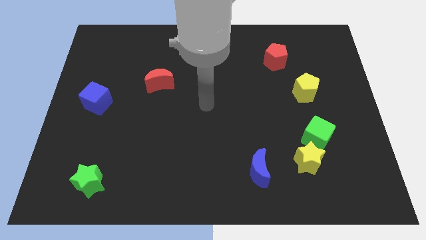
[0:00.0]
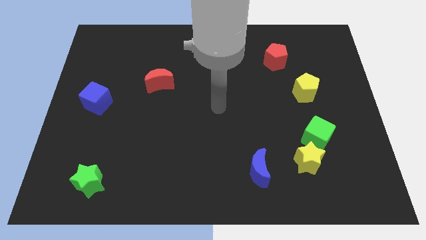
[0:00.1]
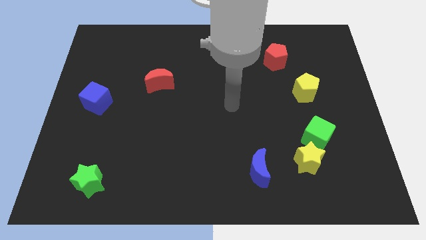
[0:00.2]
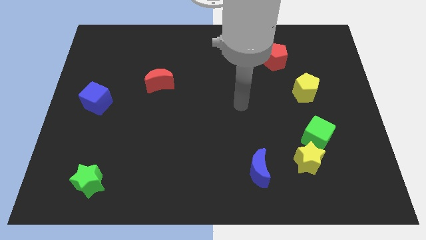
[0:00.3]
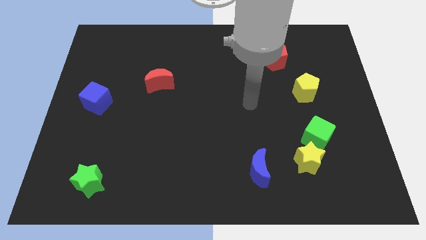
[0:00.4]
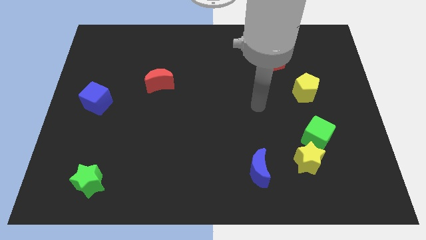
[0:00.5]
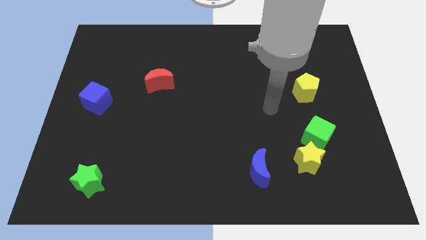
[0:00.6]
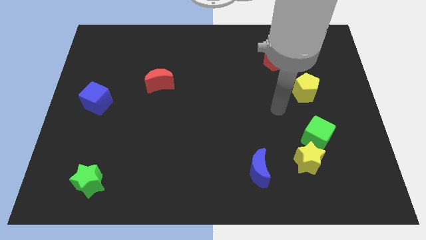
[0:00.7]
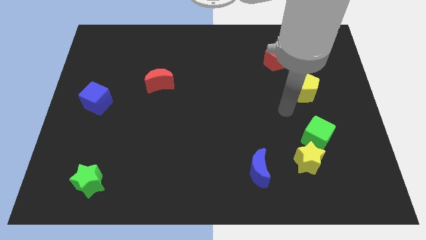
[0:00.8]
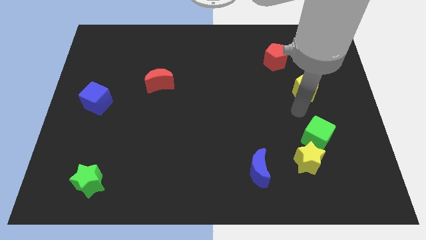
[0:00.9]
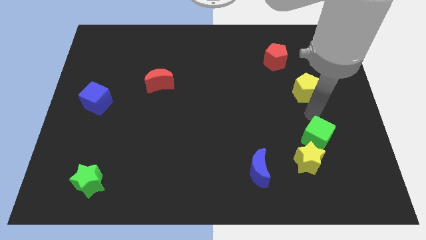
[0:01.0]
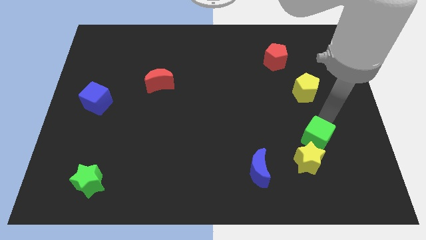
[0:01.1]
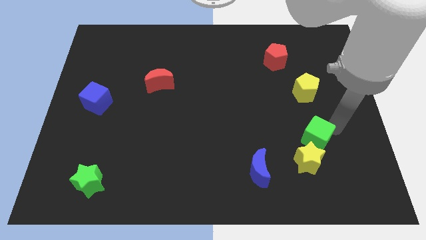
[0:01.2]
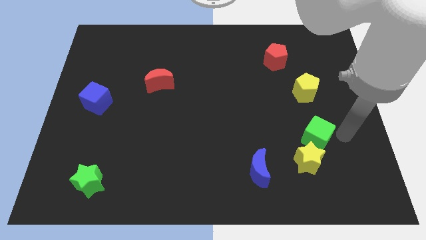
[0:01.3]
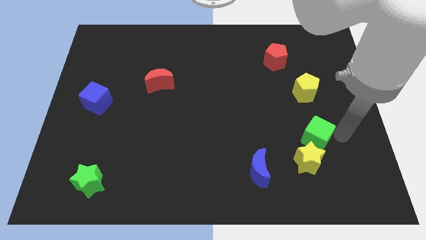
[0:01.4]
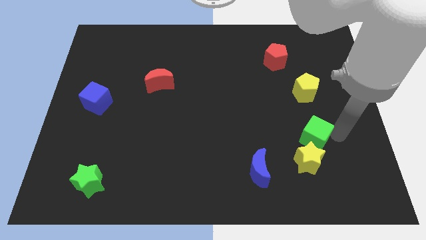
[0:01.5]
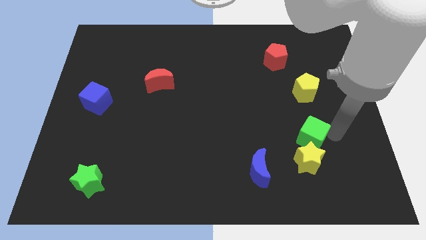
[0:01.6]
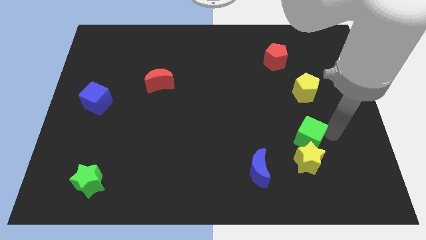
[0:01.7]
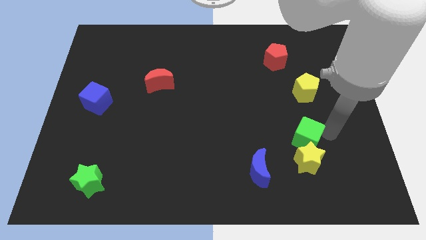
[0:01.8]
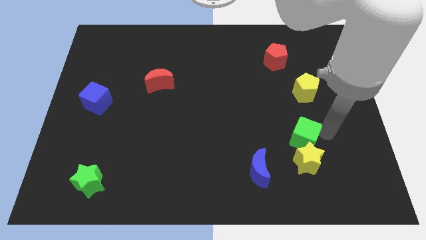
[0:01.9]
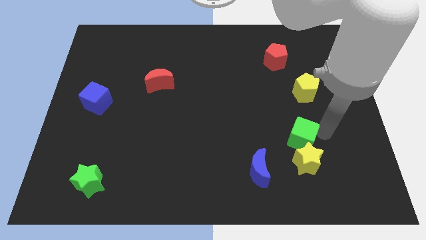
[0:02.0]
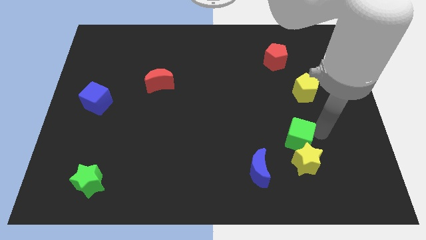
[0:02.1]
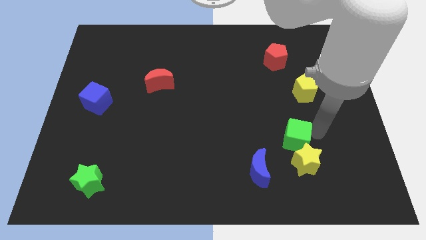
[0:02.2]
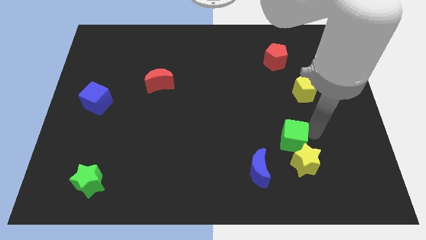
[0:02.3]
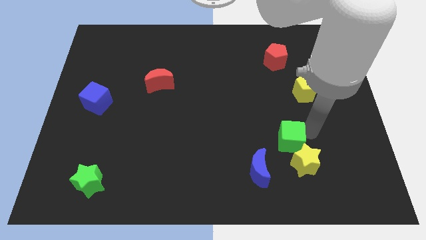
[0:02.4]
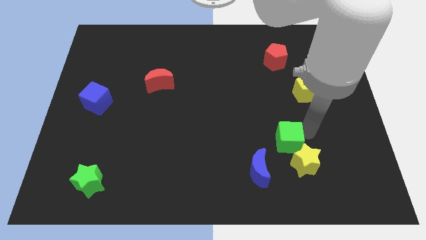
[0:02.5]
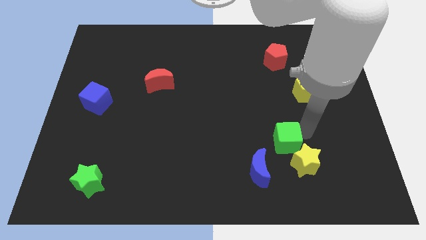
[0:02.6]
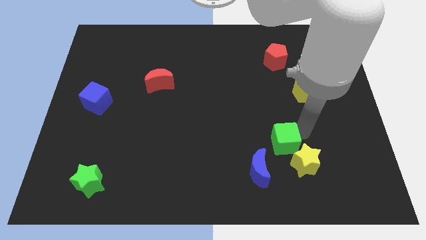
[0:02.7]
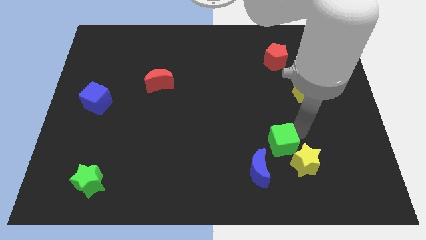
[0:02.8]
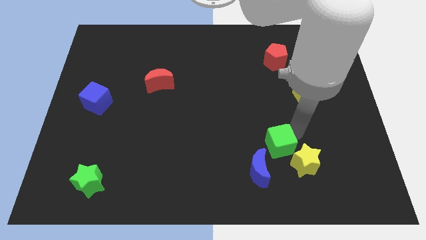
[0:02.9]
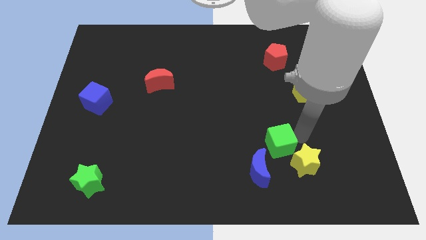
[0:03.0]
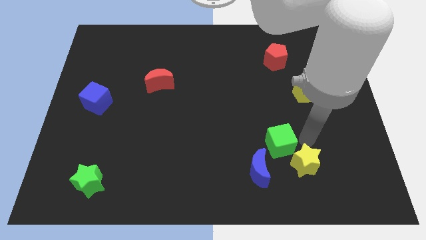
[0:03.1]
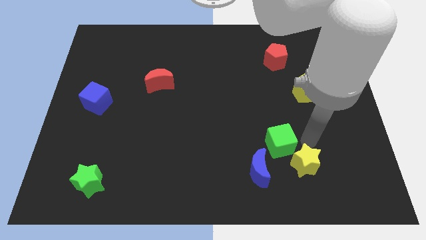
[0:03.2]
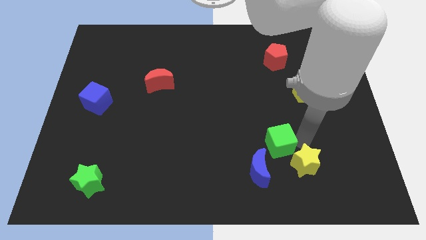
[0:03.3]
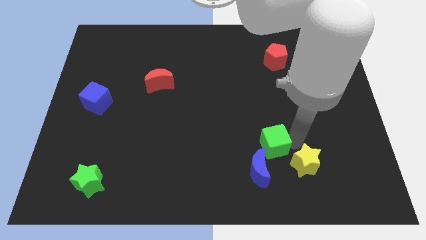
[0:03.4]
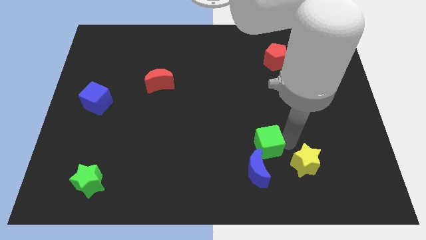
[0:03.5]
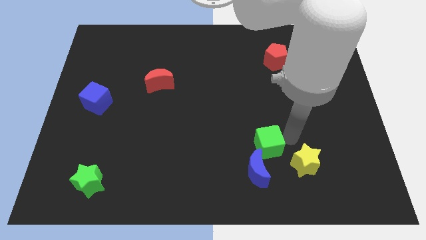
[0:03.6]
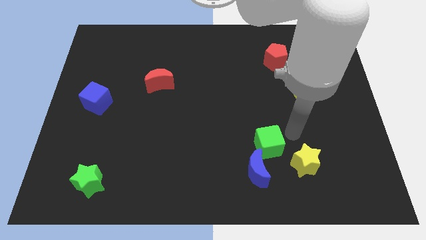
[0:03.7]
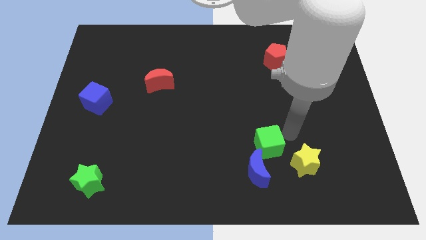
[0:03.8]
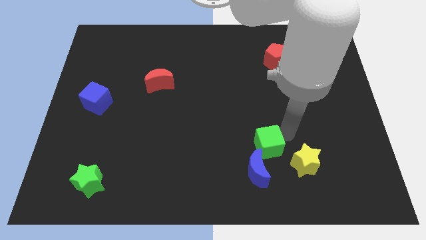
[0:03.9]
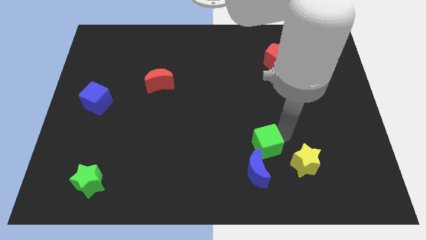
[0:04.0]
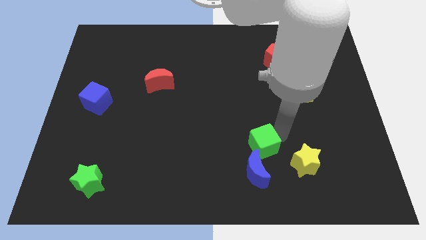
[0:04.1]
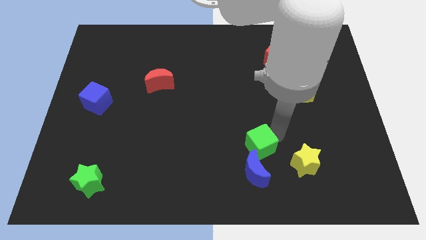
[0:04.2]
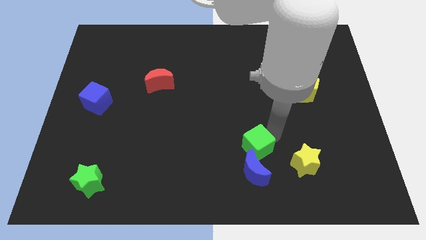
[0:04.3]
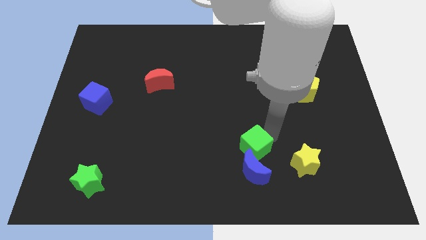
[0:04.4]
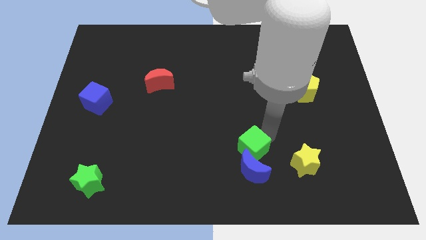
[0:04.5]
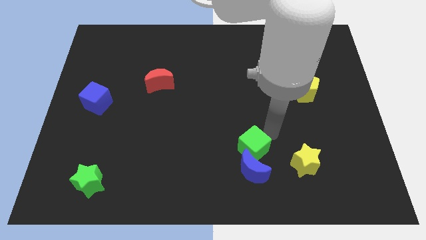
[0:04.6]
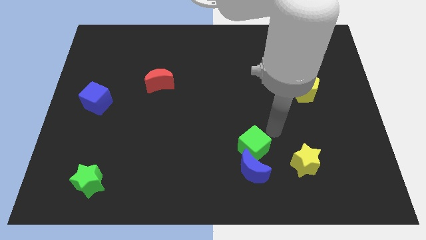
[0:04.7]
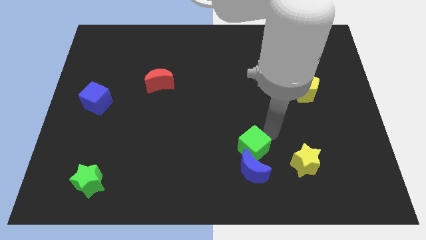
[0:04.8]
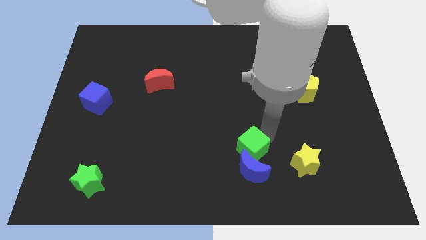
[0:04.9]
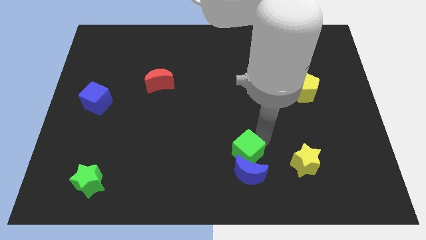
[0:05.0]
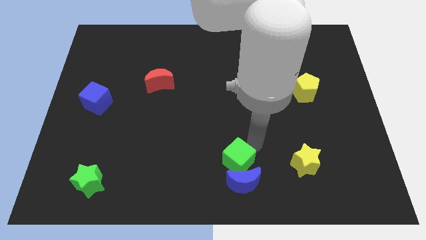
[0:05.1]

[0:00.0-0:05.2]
slide the green cube to the bottom side

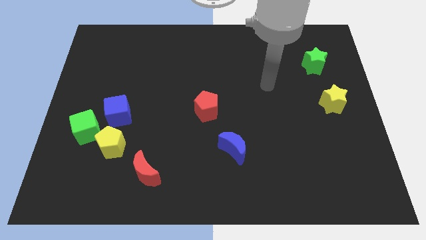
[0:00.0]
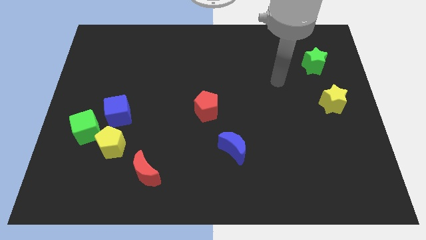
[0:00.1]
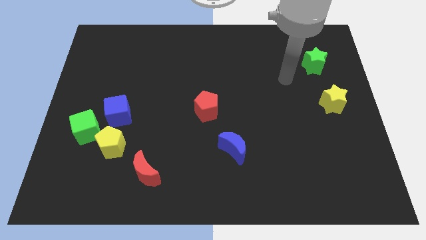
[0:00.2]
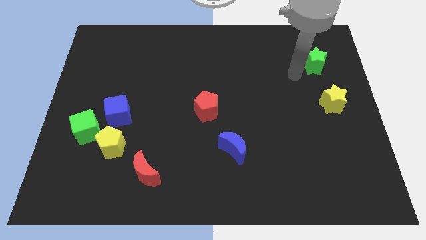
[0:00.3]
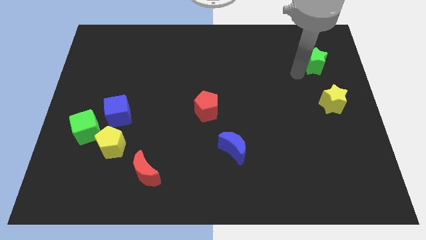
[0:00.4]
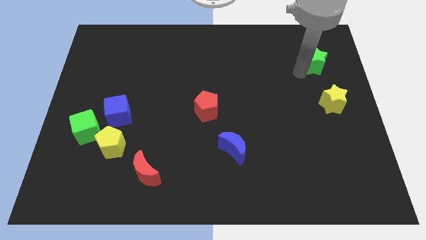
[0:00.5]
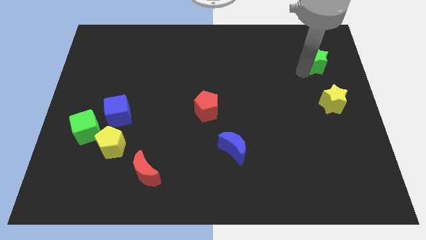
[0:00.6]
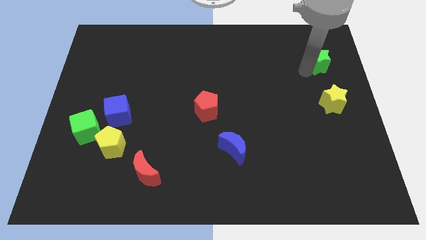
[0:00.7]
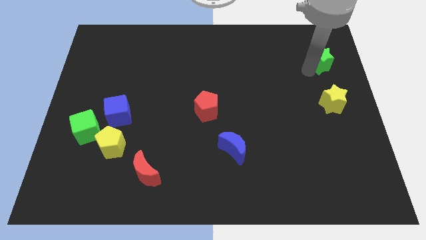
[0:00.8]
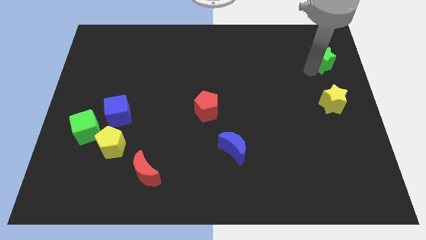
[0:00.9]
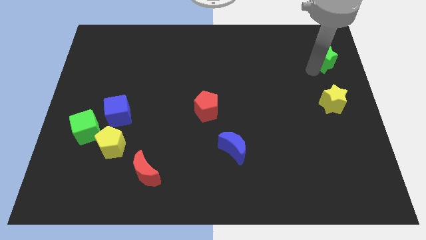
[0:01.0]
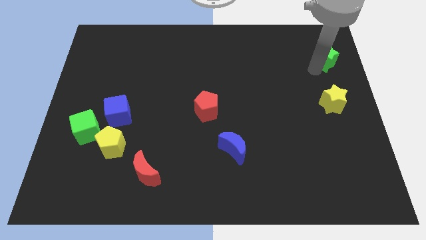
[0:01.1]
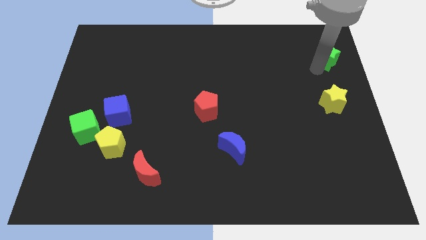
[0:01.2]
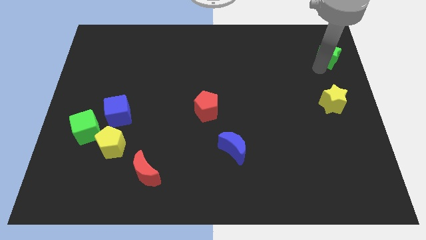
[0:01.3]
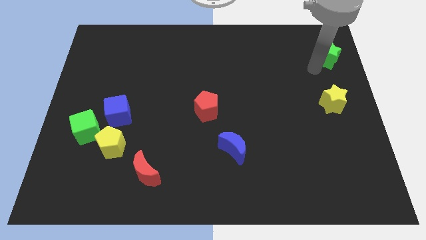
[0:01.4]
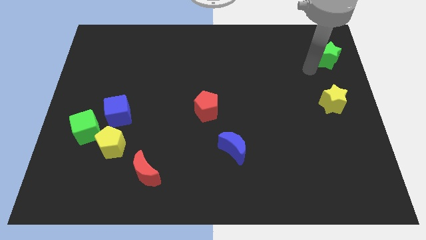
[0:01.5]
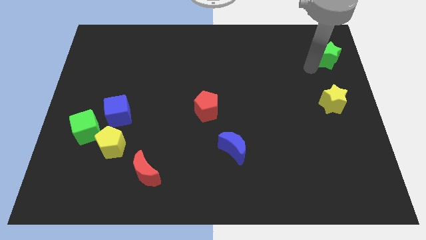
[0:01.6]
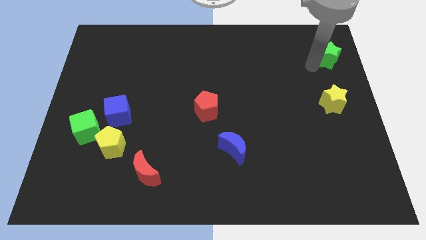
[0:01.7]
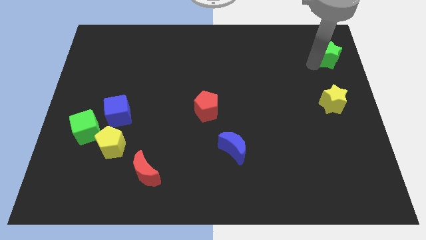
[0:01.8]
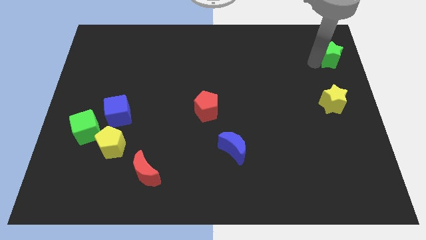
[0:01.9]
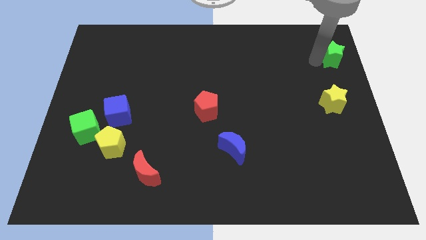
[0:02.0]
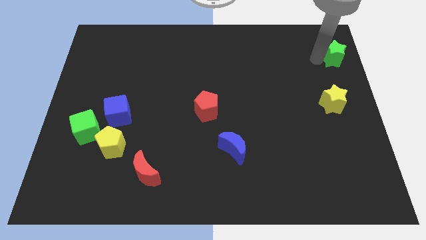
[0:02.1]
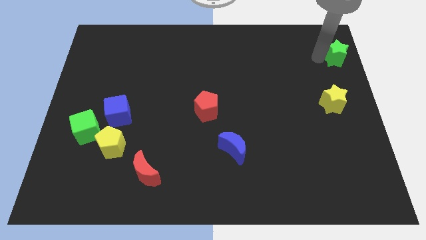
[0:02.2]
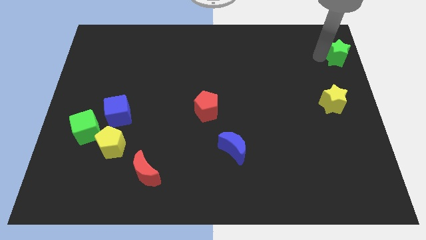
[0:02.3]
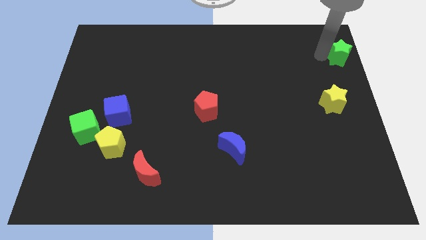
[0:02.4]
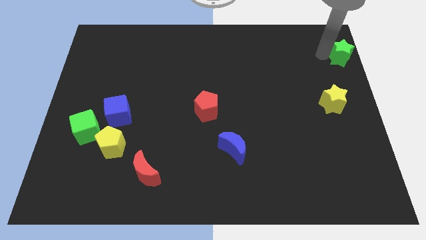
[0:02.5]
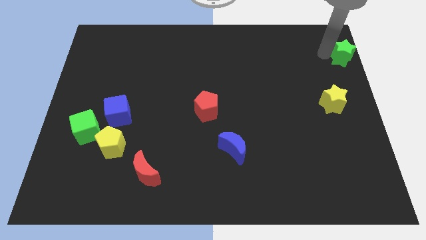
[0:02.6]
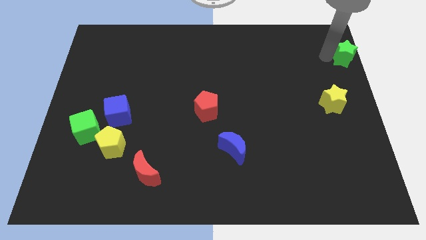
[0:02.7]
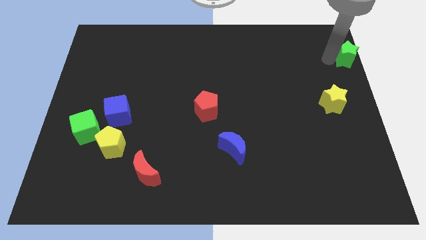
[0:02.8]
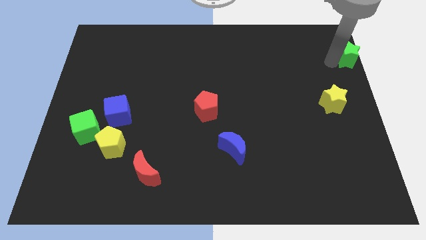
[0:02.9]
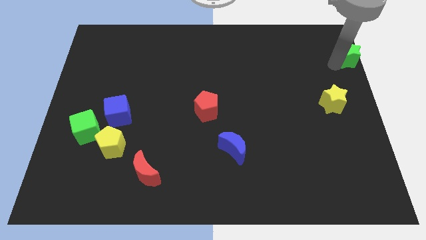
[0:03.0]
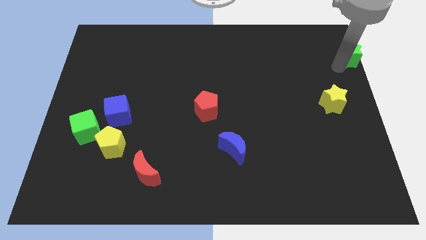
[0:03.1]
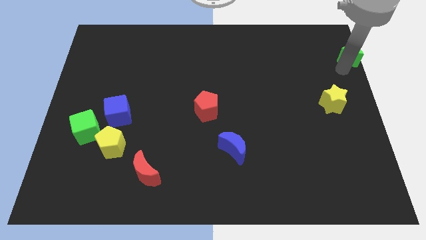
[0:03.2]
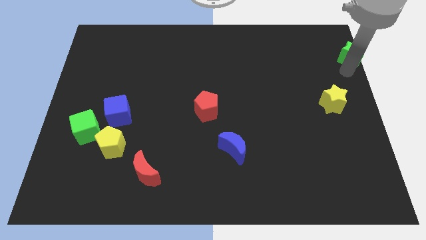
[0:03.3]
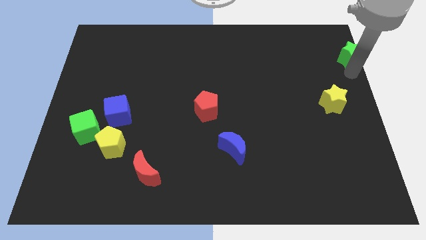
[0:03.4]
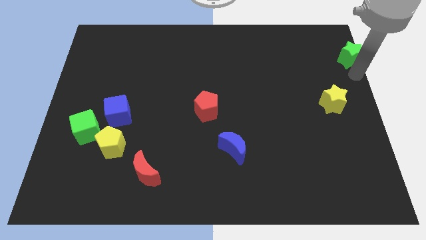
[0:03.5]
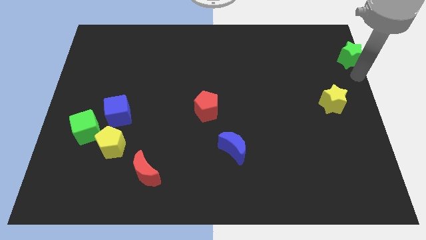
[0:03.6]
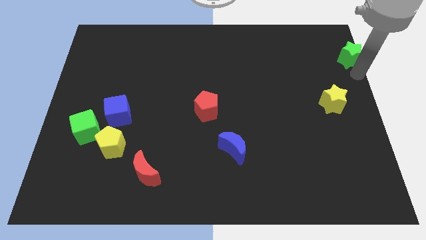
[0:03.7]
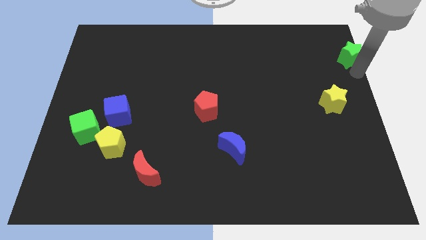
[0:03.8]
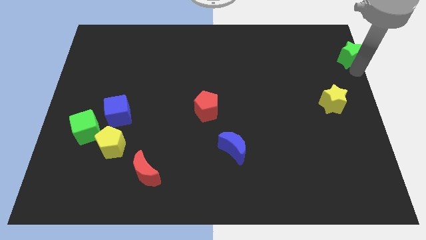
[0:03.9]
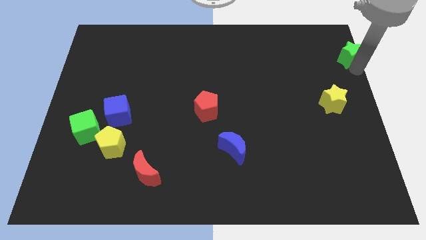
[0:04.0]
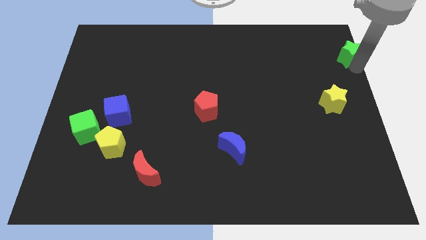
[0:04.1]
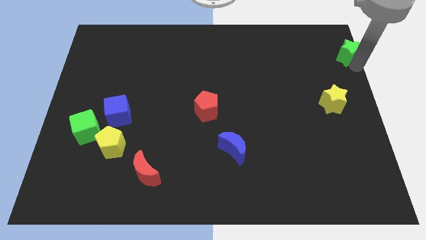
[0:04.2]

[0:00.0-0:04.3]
push the green star to the top right
